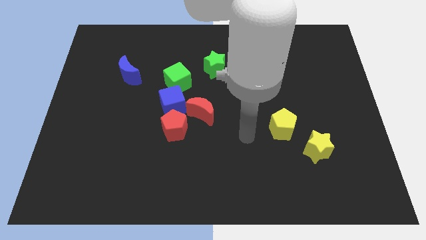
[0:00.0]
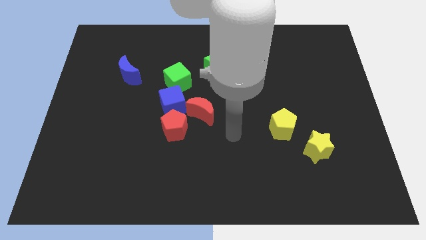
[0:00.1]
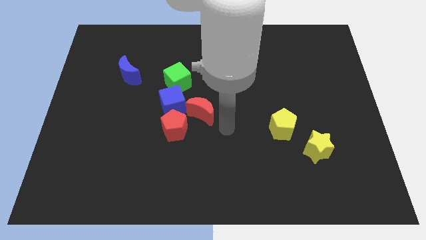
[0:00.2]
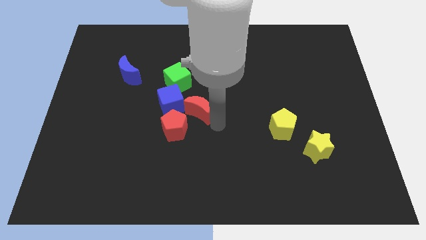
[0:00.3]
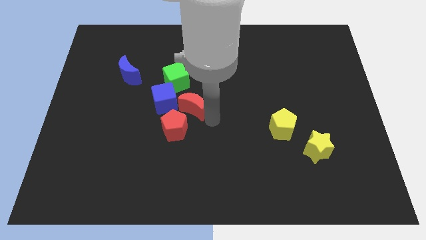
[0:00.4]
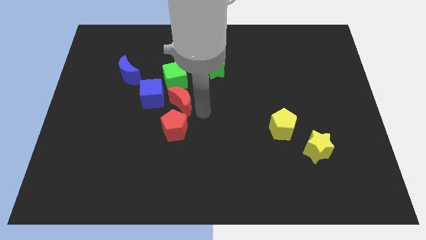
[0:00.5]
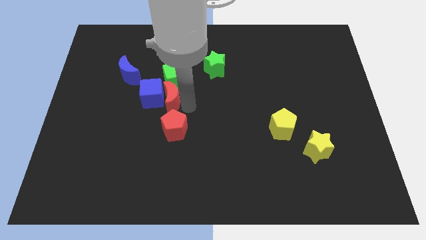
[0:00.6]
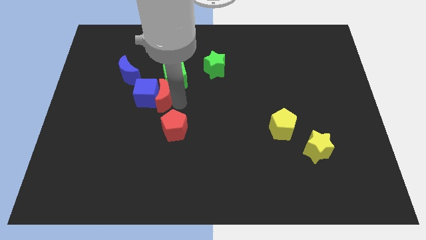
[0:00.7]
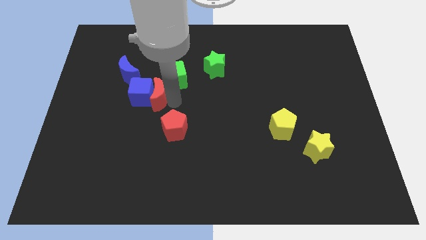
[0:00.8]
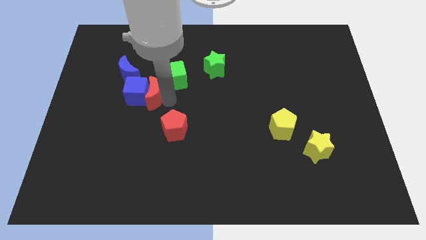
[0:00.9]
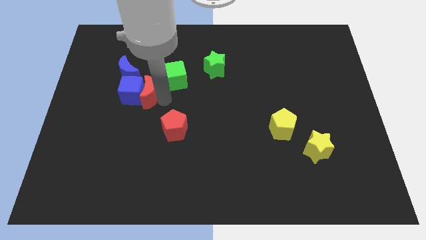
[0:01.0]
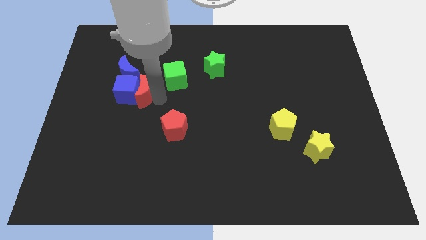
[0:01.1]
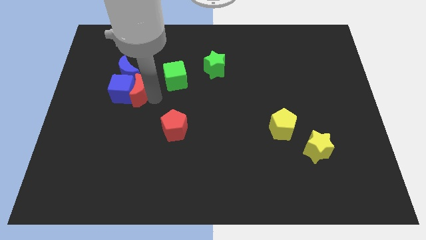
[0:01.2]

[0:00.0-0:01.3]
separate the blue cube from the red pentagon, red moon, and green cube

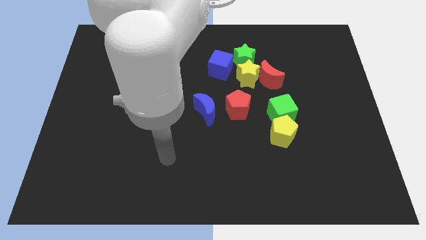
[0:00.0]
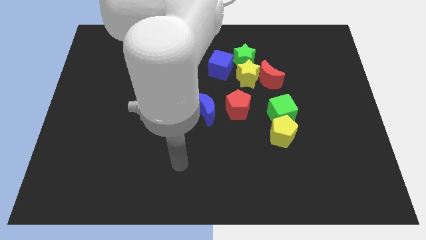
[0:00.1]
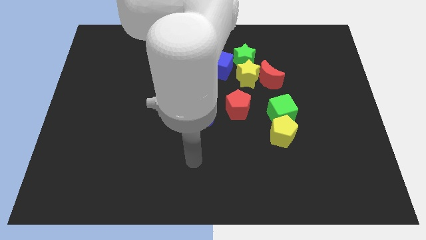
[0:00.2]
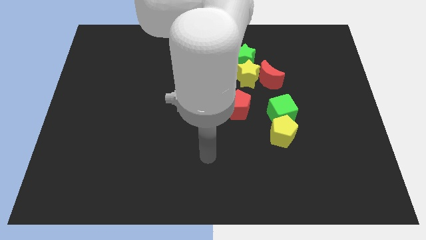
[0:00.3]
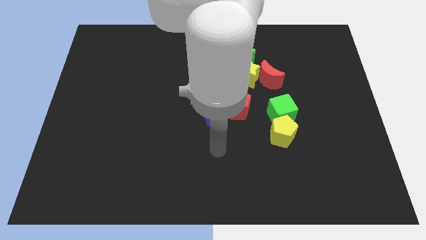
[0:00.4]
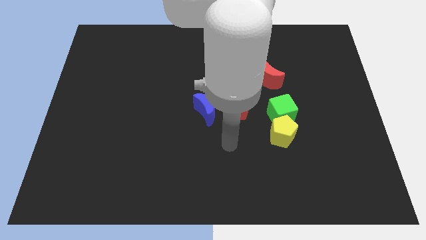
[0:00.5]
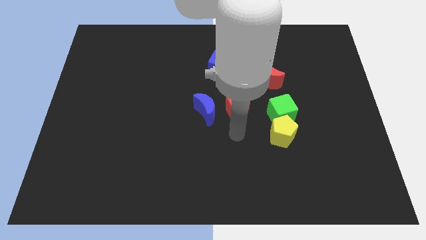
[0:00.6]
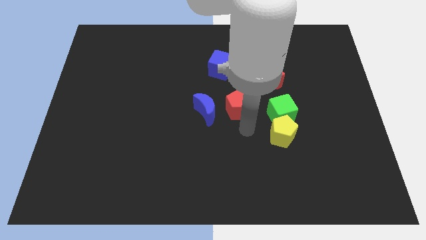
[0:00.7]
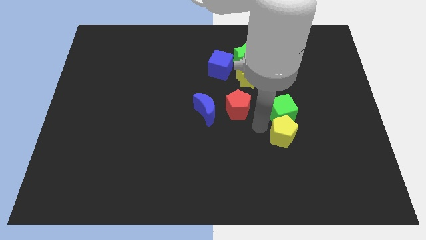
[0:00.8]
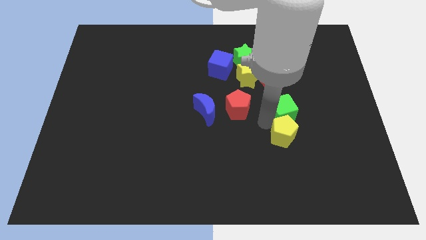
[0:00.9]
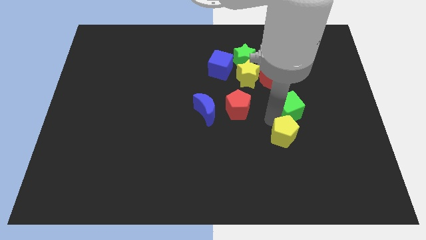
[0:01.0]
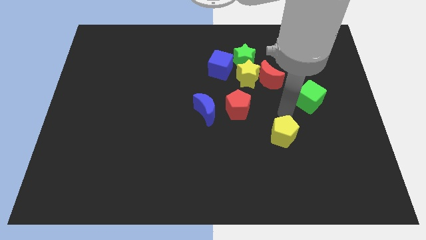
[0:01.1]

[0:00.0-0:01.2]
pull the yellow pentagon apart from the green cube

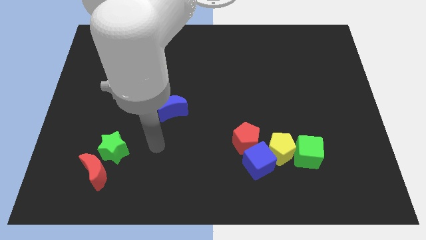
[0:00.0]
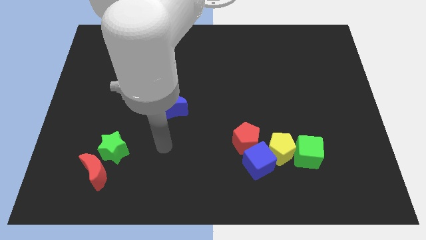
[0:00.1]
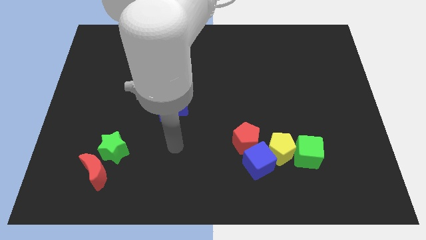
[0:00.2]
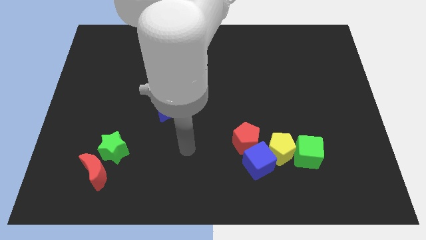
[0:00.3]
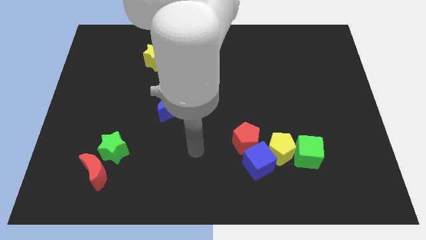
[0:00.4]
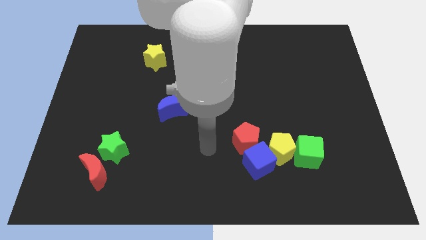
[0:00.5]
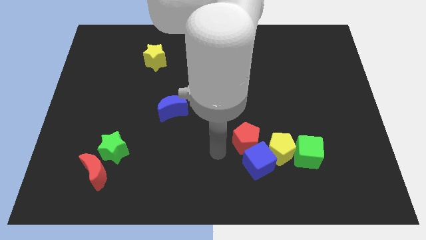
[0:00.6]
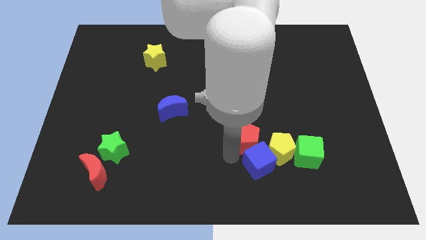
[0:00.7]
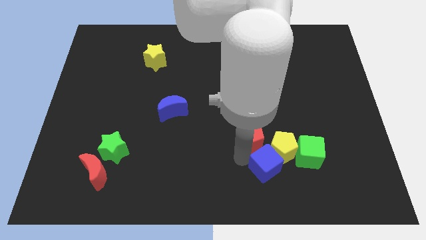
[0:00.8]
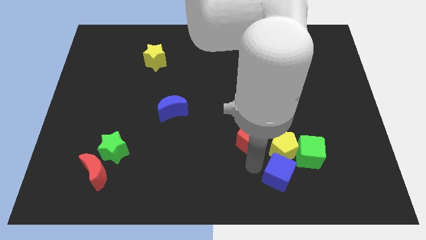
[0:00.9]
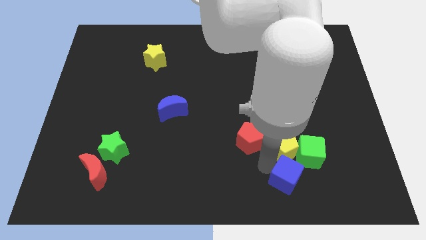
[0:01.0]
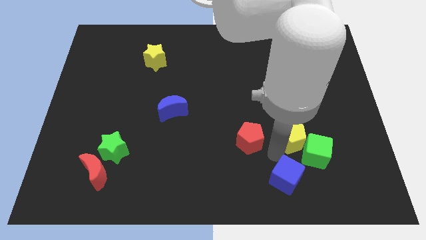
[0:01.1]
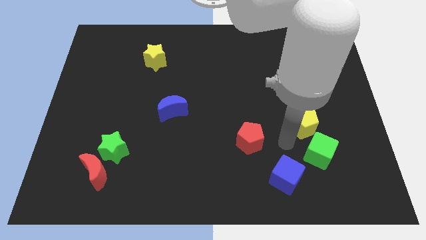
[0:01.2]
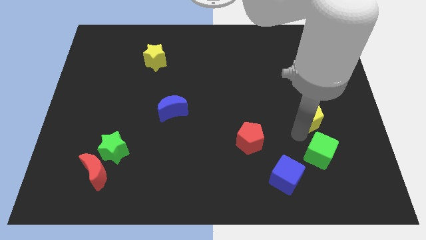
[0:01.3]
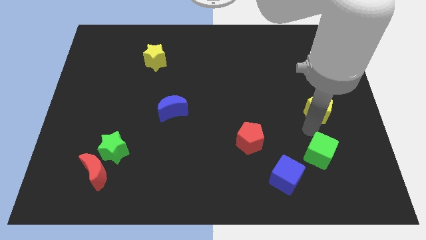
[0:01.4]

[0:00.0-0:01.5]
pull the green cube apart from the yellow pentagon

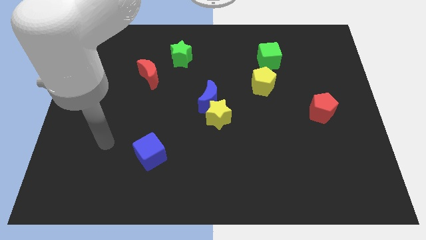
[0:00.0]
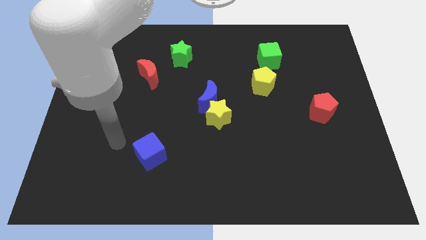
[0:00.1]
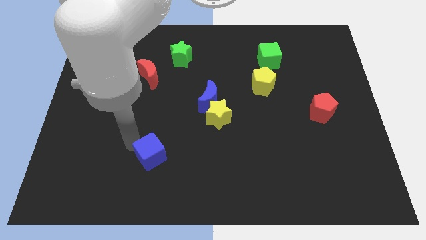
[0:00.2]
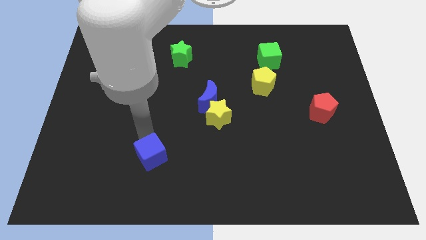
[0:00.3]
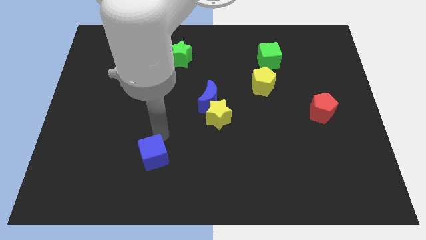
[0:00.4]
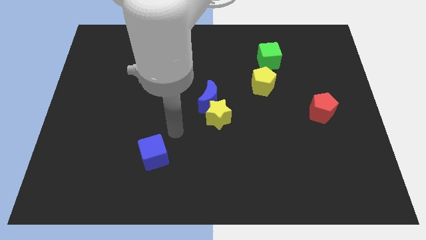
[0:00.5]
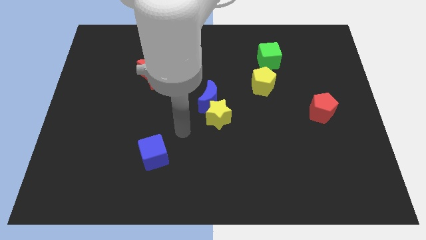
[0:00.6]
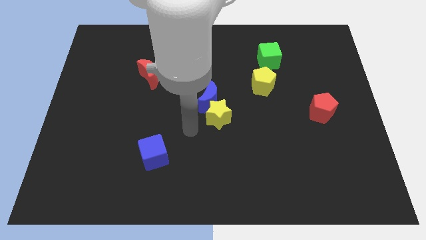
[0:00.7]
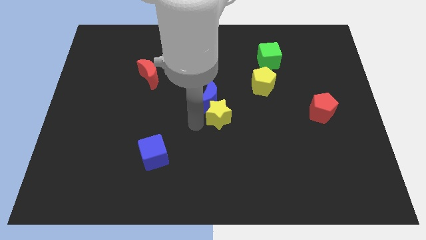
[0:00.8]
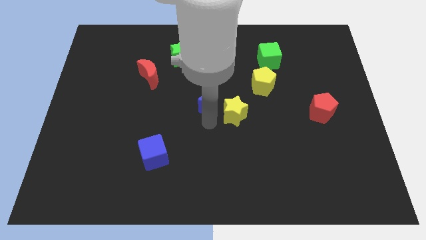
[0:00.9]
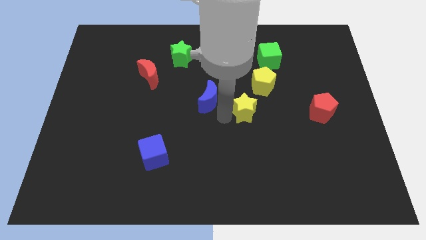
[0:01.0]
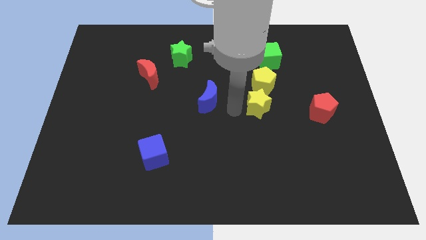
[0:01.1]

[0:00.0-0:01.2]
move the blue moon away from the yellow star

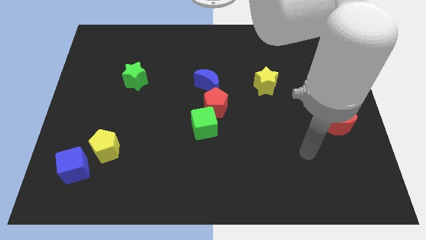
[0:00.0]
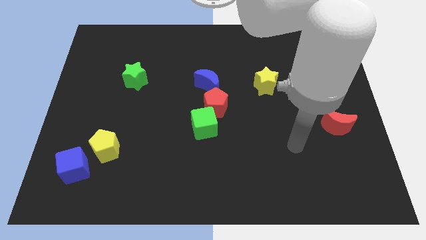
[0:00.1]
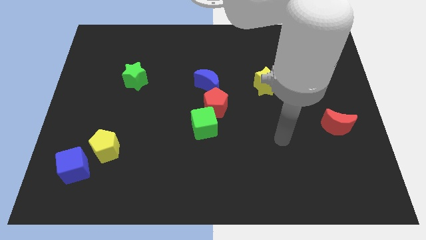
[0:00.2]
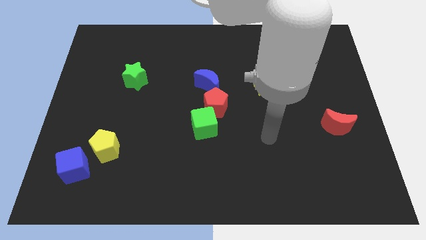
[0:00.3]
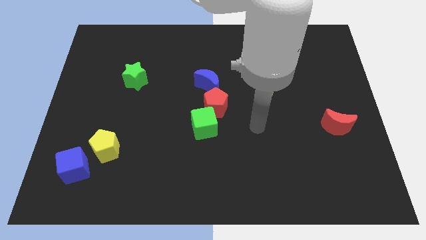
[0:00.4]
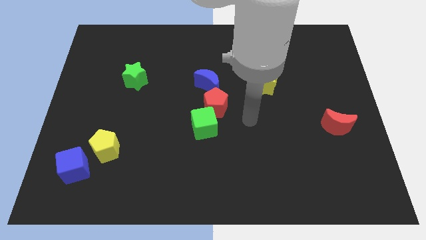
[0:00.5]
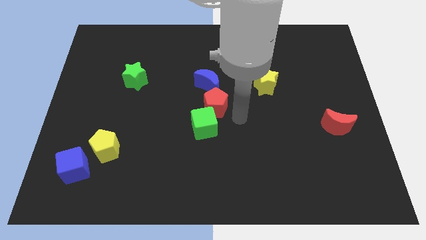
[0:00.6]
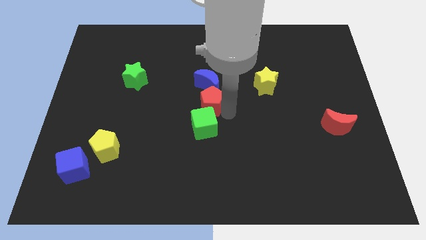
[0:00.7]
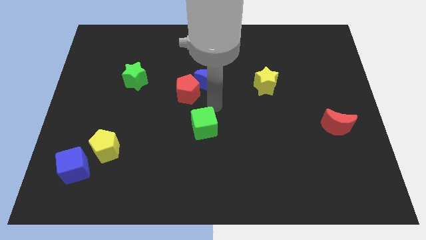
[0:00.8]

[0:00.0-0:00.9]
move the green cube away from the red pentagon

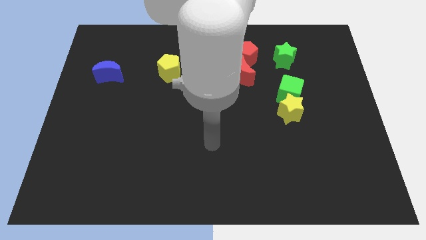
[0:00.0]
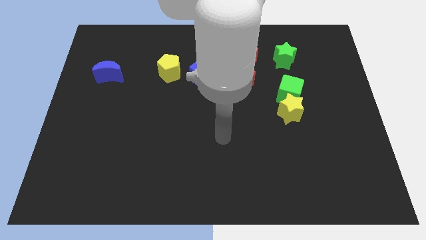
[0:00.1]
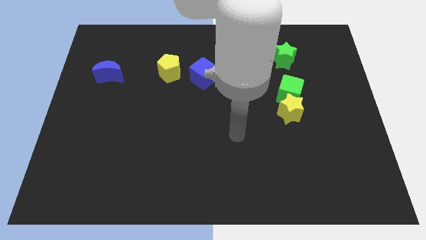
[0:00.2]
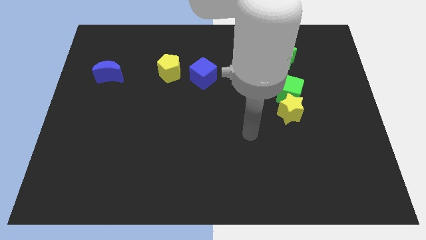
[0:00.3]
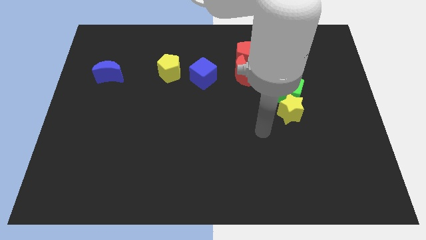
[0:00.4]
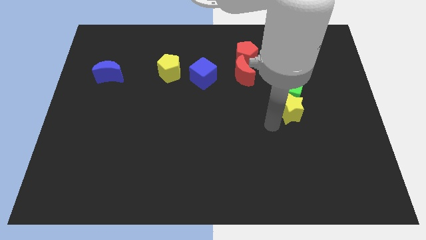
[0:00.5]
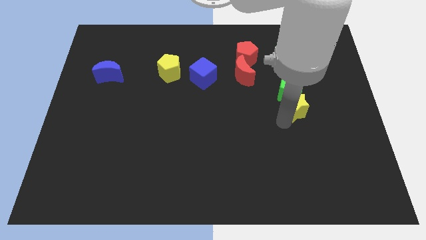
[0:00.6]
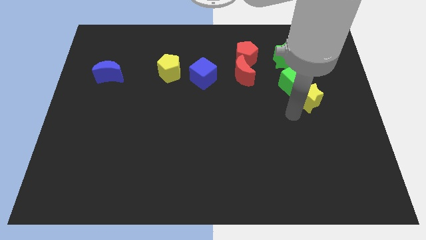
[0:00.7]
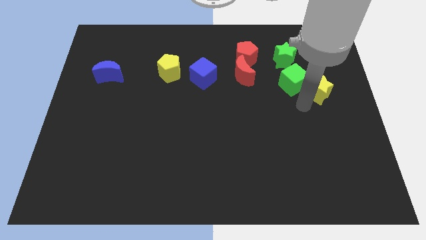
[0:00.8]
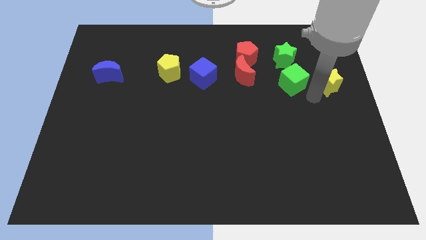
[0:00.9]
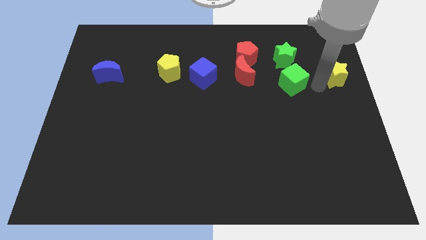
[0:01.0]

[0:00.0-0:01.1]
separate the green cube from the yellow star

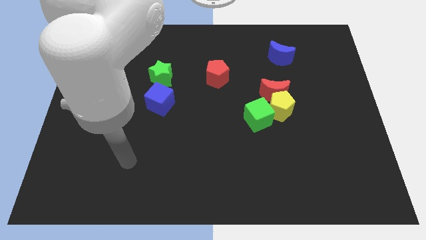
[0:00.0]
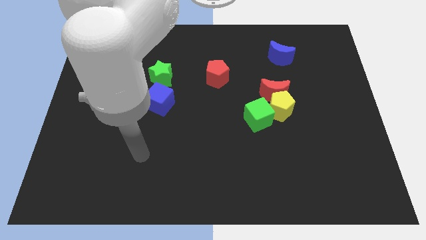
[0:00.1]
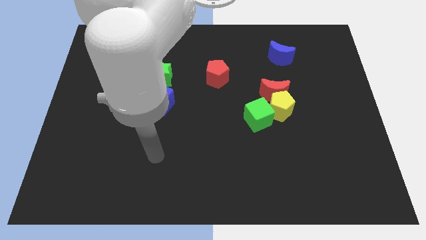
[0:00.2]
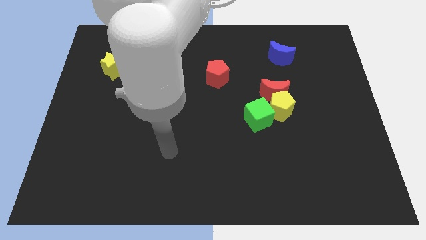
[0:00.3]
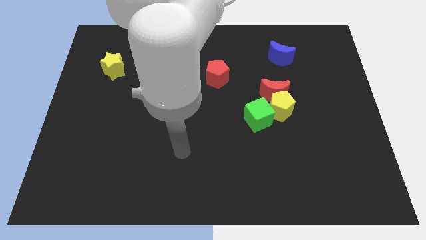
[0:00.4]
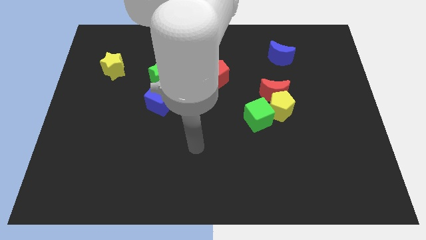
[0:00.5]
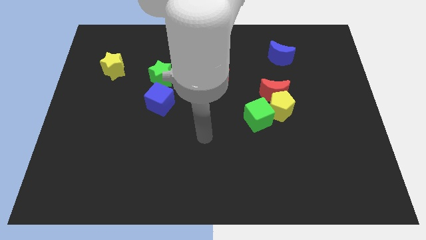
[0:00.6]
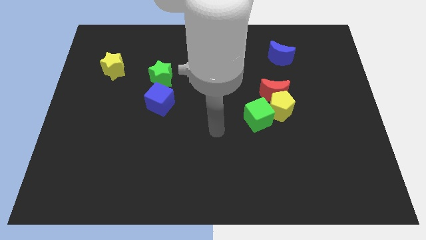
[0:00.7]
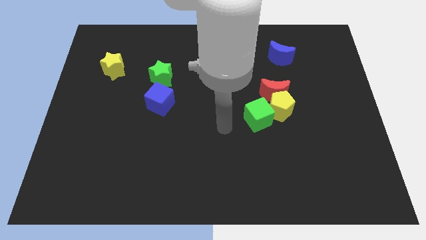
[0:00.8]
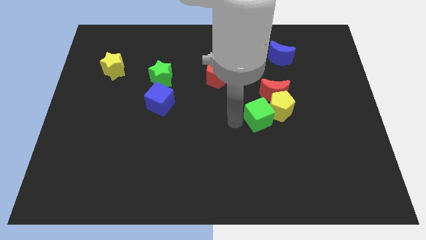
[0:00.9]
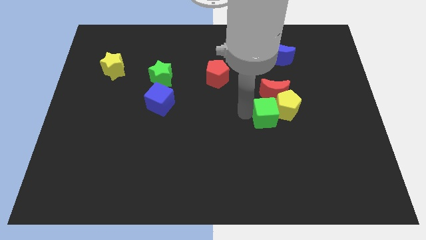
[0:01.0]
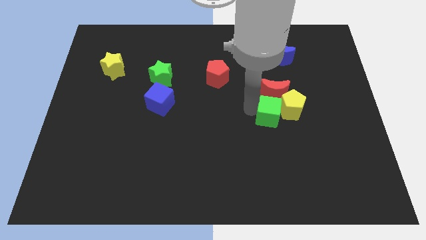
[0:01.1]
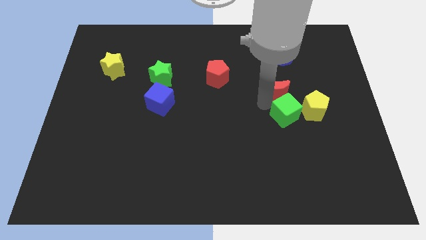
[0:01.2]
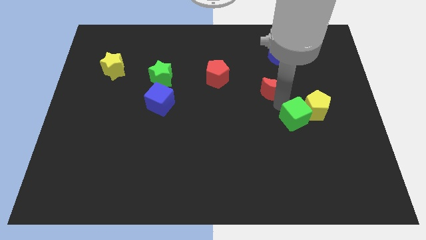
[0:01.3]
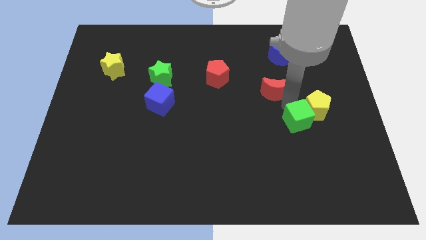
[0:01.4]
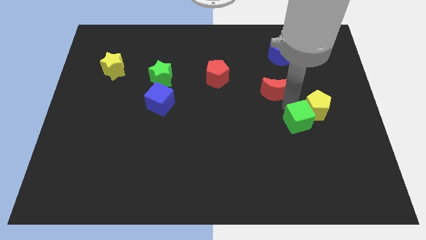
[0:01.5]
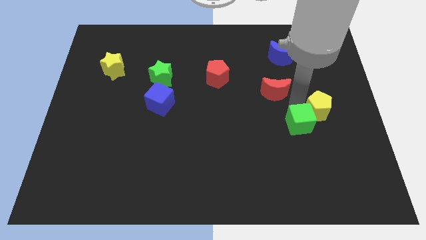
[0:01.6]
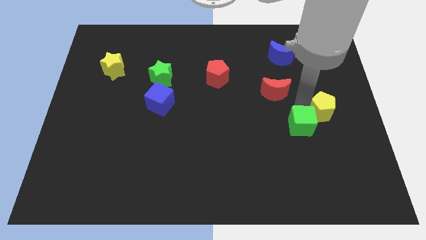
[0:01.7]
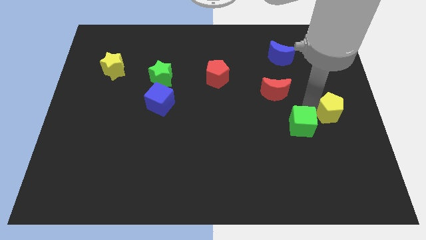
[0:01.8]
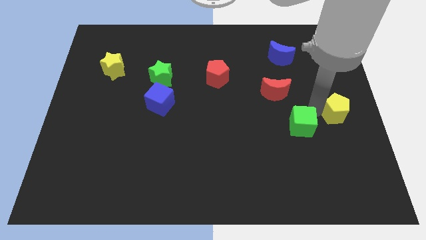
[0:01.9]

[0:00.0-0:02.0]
pull the yellow pentagon apart from the red moon and green cube
